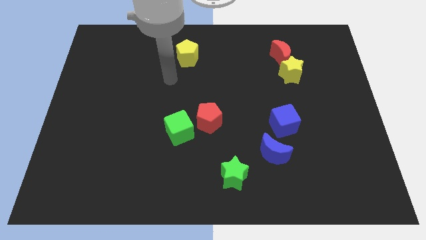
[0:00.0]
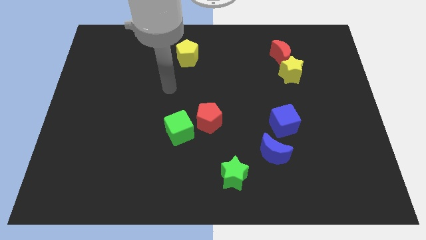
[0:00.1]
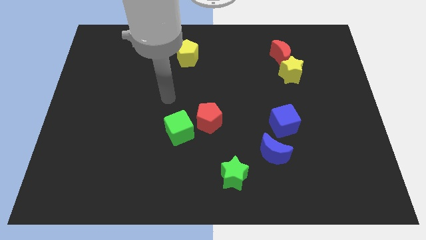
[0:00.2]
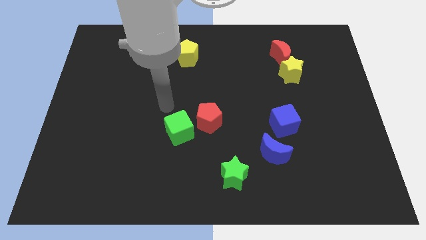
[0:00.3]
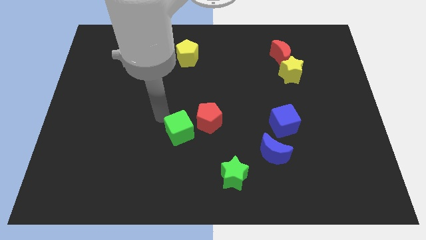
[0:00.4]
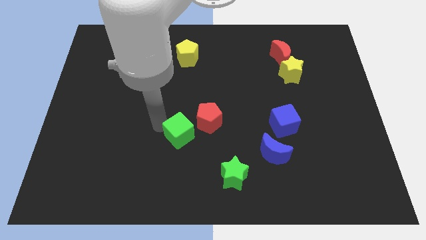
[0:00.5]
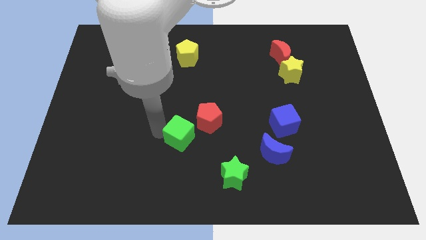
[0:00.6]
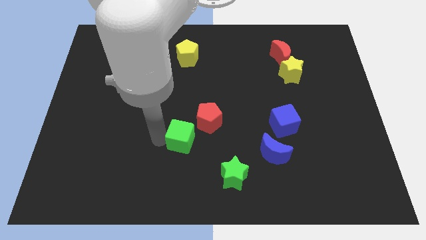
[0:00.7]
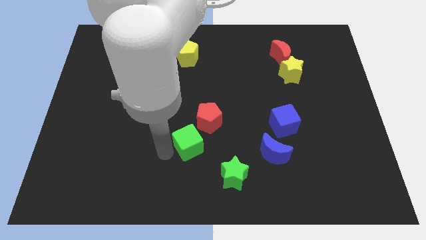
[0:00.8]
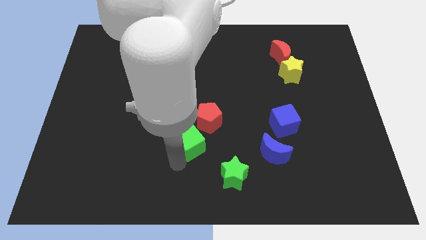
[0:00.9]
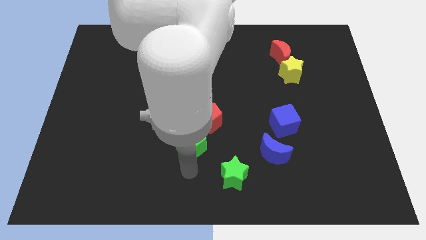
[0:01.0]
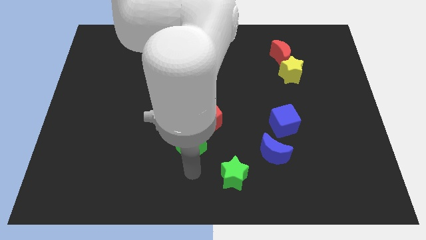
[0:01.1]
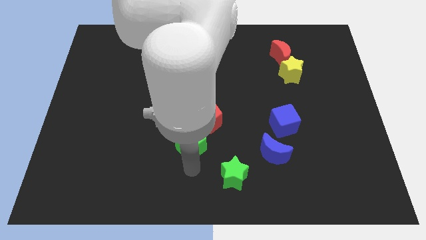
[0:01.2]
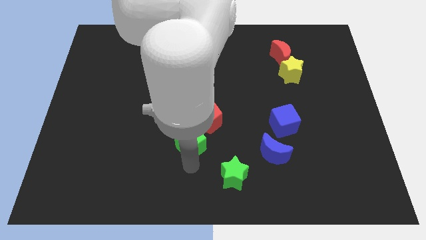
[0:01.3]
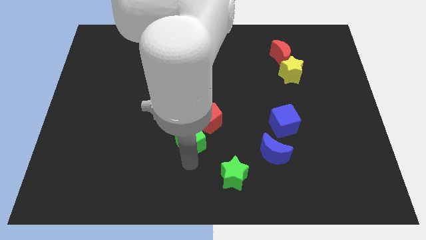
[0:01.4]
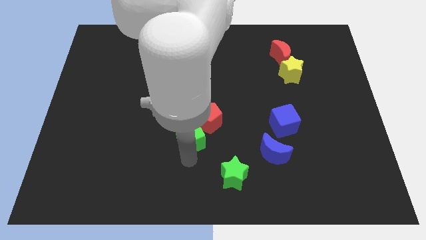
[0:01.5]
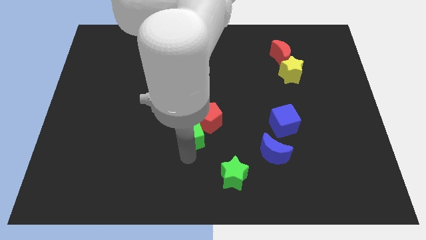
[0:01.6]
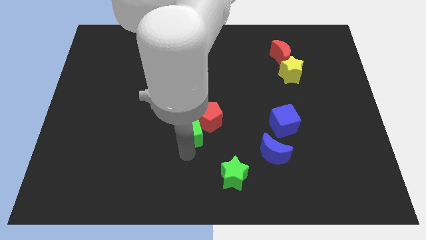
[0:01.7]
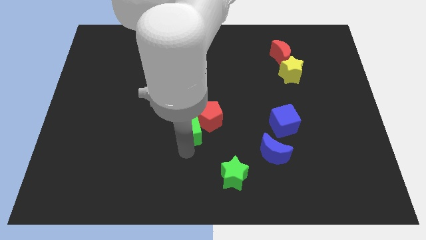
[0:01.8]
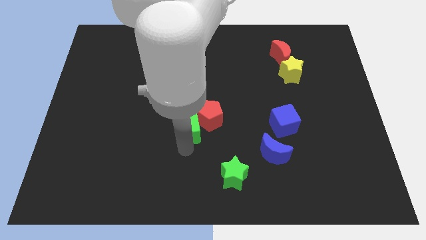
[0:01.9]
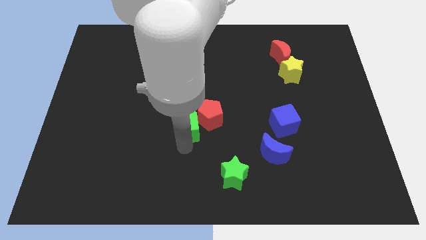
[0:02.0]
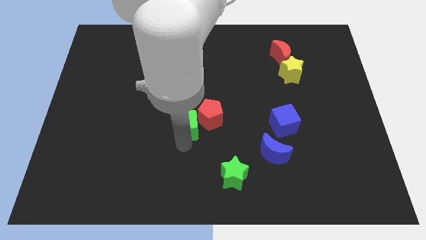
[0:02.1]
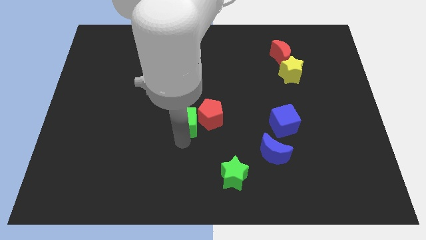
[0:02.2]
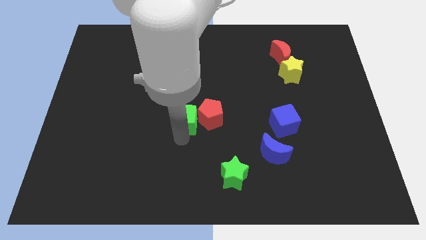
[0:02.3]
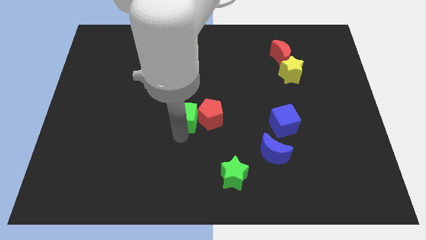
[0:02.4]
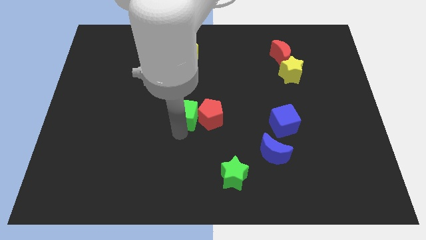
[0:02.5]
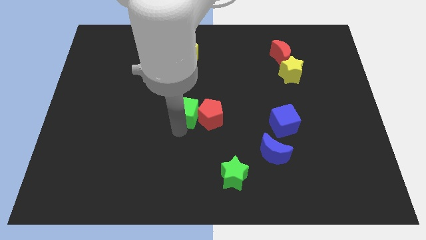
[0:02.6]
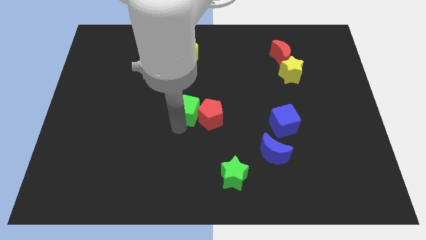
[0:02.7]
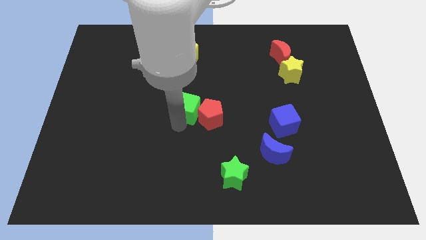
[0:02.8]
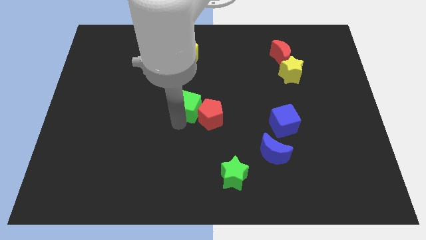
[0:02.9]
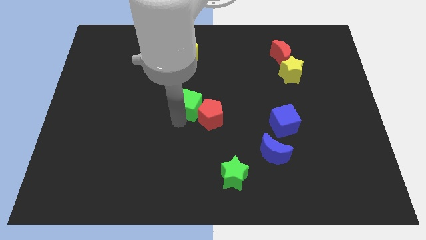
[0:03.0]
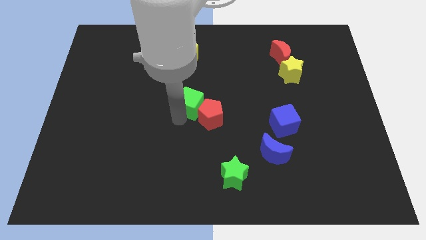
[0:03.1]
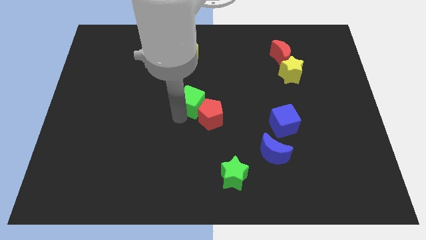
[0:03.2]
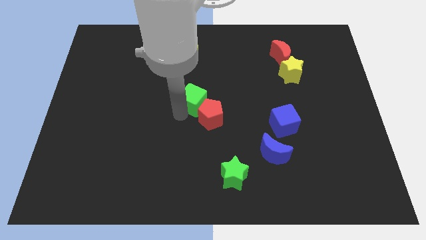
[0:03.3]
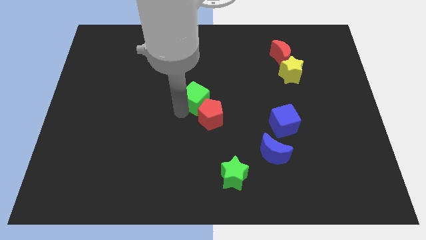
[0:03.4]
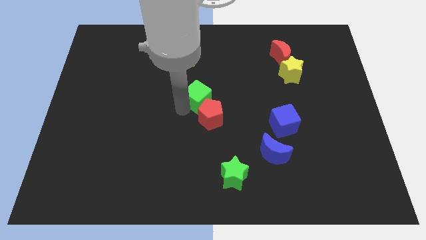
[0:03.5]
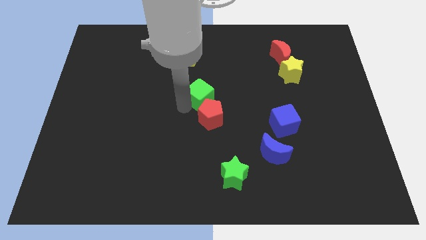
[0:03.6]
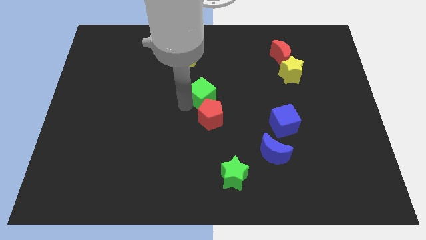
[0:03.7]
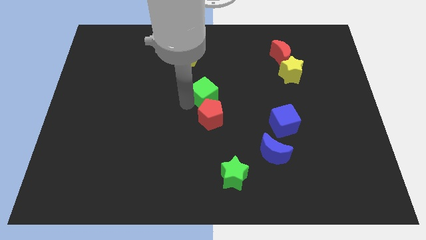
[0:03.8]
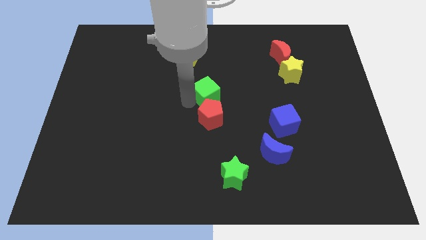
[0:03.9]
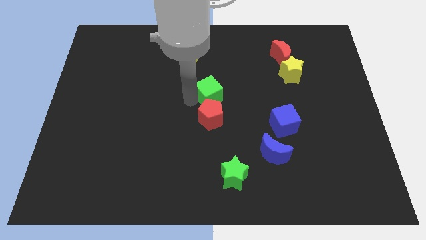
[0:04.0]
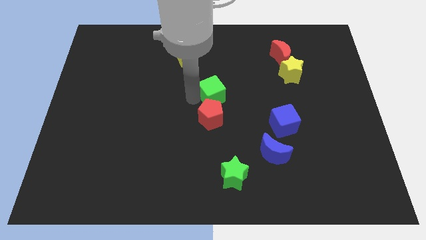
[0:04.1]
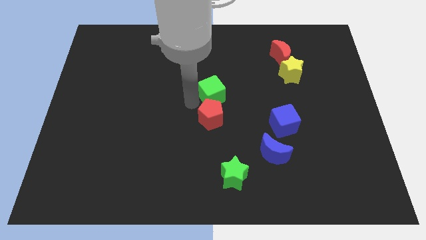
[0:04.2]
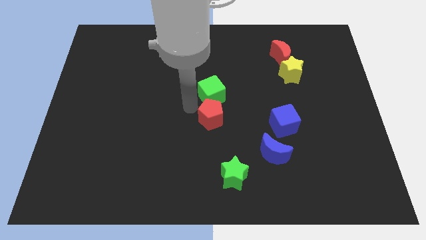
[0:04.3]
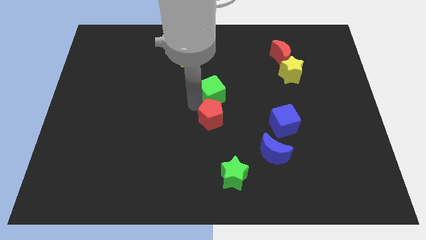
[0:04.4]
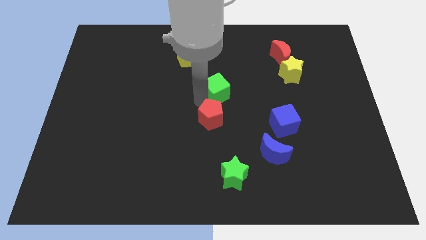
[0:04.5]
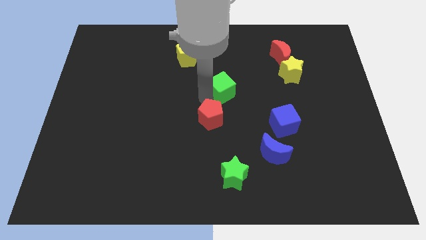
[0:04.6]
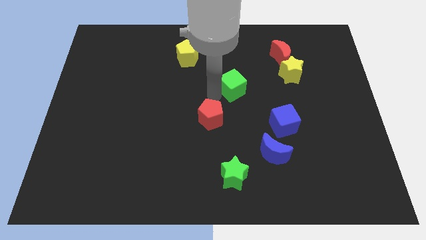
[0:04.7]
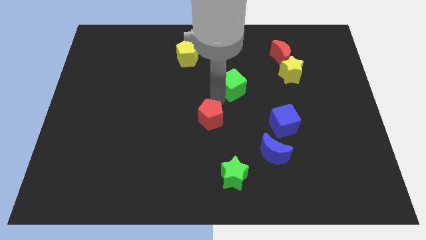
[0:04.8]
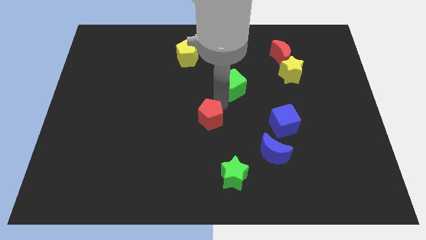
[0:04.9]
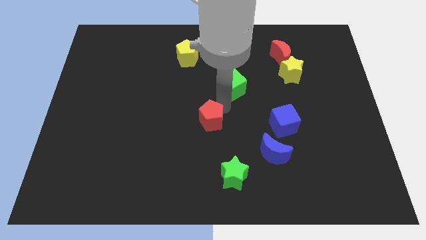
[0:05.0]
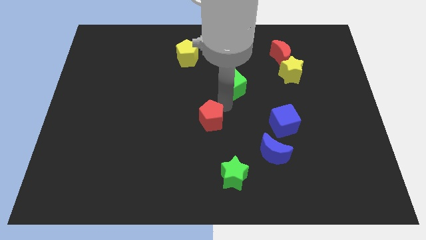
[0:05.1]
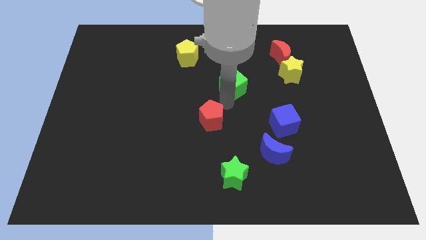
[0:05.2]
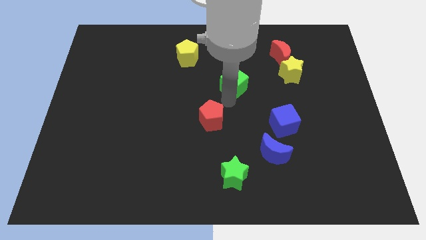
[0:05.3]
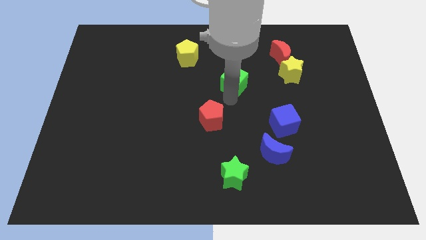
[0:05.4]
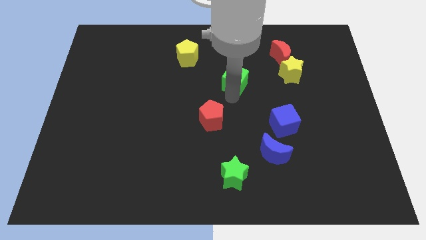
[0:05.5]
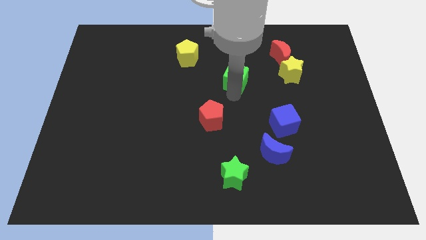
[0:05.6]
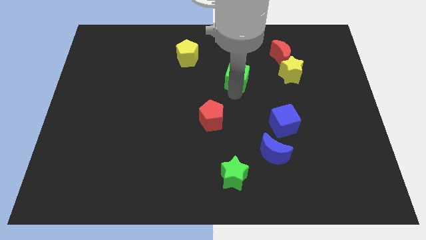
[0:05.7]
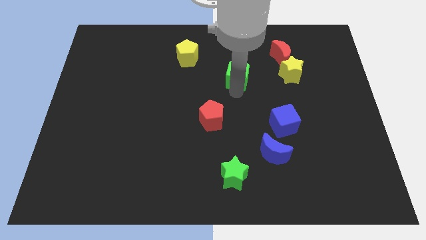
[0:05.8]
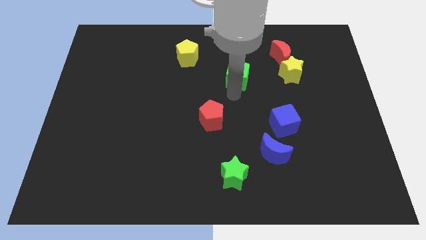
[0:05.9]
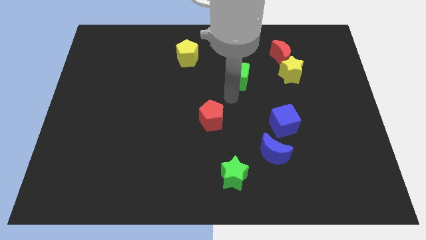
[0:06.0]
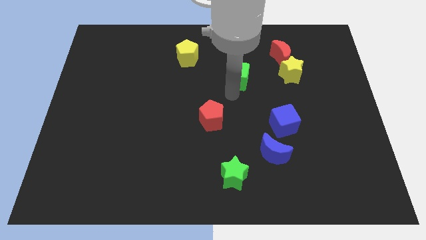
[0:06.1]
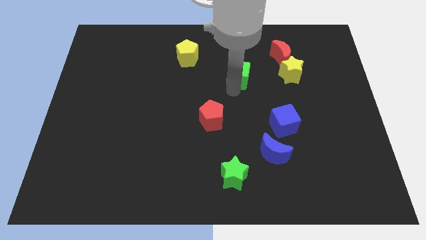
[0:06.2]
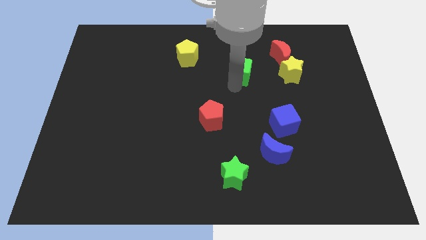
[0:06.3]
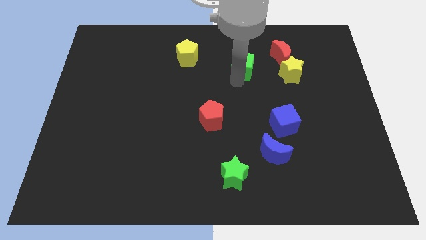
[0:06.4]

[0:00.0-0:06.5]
move the green cube to the left of the red moon
